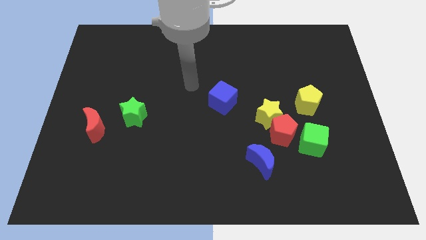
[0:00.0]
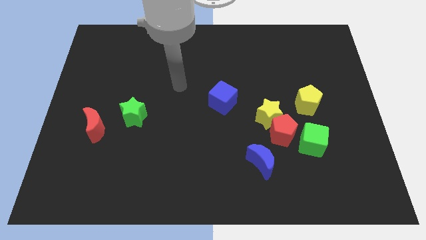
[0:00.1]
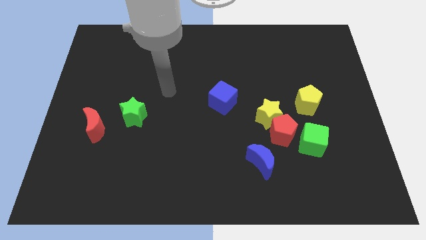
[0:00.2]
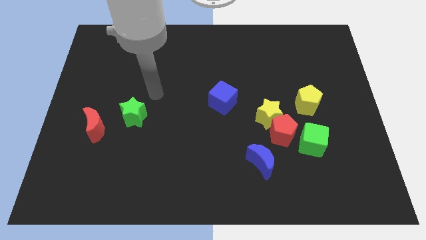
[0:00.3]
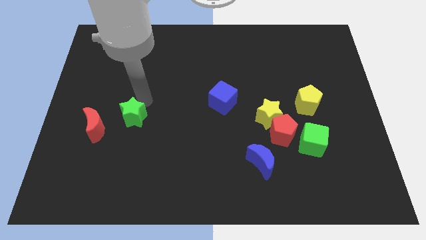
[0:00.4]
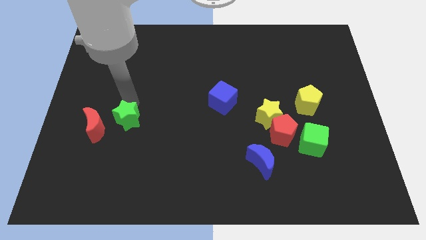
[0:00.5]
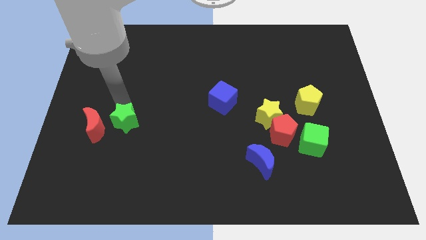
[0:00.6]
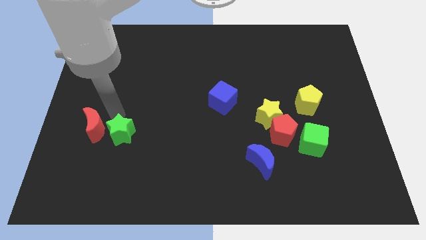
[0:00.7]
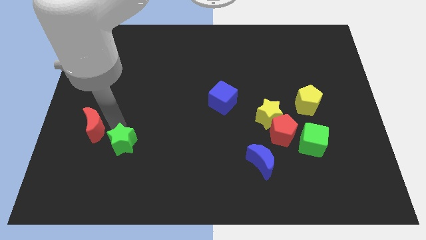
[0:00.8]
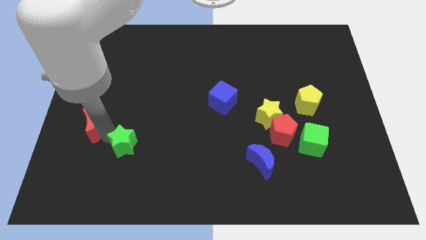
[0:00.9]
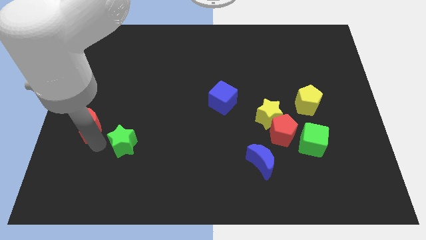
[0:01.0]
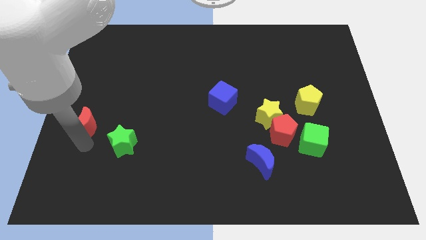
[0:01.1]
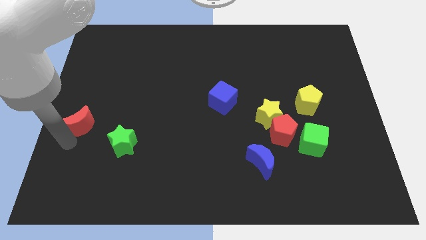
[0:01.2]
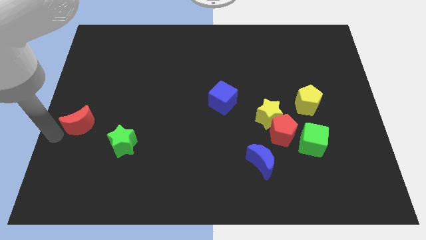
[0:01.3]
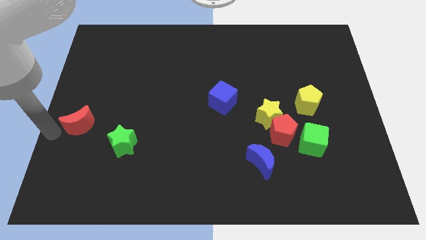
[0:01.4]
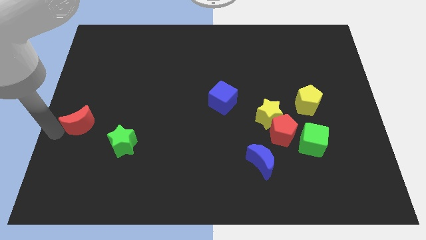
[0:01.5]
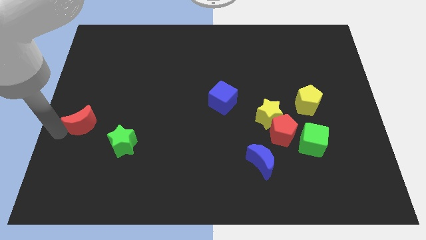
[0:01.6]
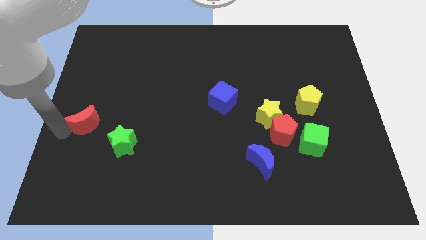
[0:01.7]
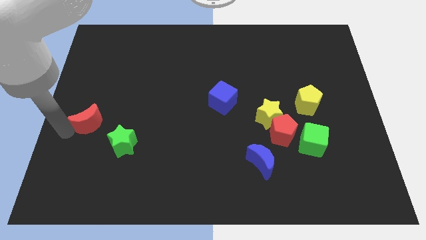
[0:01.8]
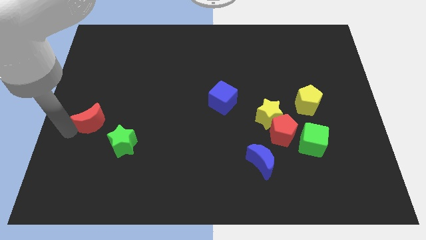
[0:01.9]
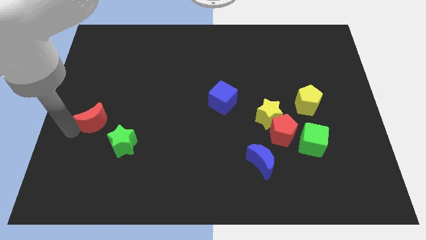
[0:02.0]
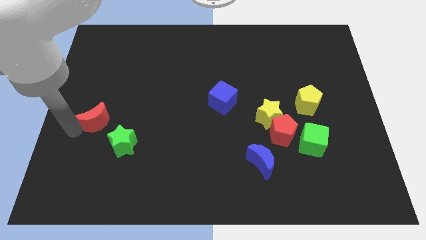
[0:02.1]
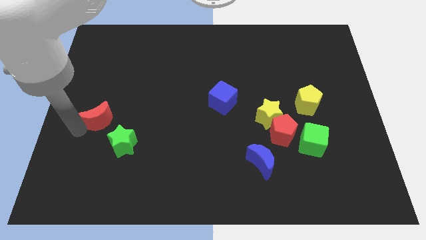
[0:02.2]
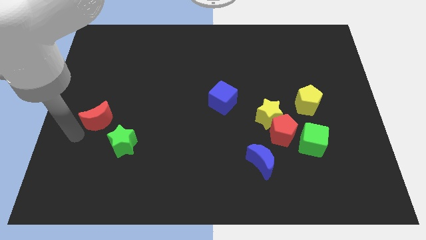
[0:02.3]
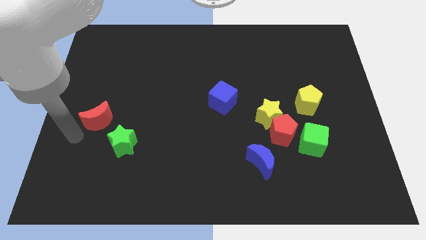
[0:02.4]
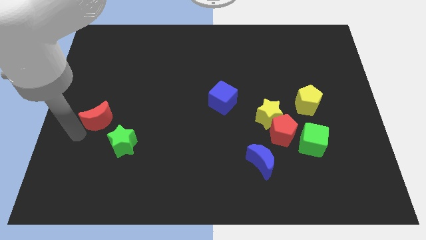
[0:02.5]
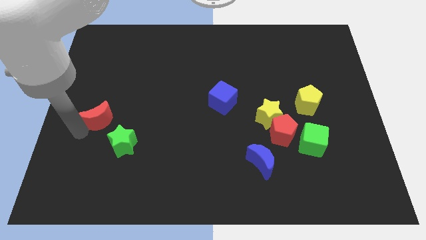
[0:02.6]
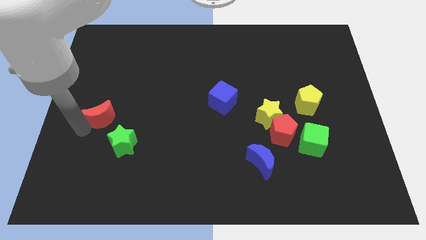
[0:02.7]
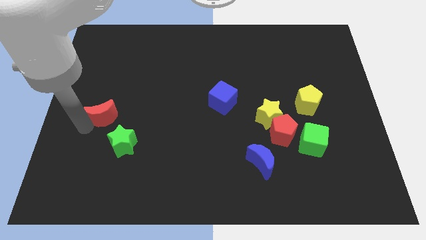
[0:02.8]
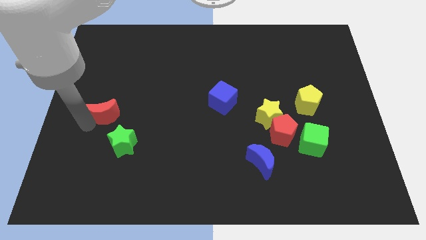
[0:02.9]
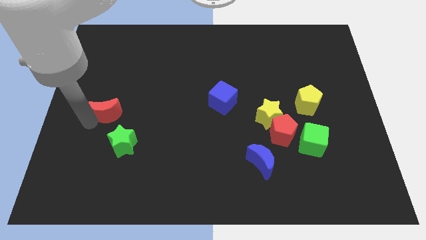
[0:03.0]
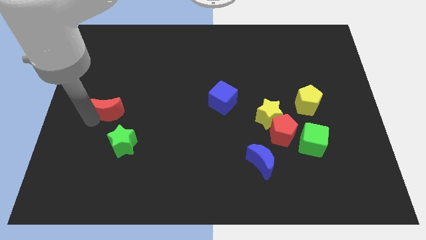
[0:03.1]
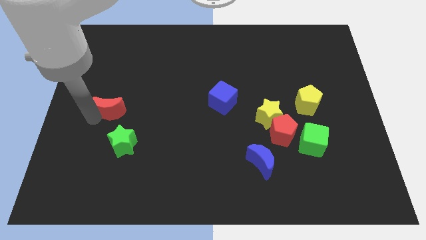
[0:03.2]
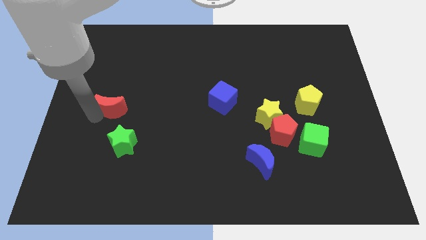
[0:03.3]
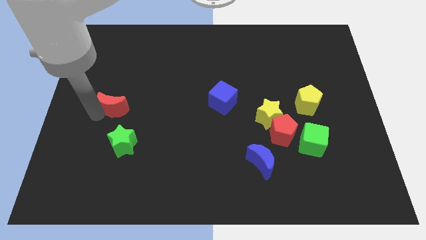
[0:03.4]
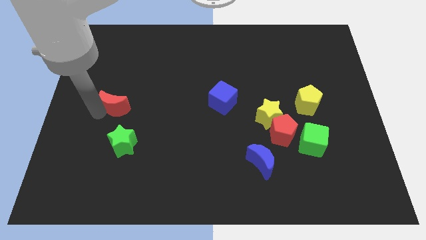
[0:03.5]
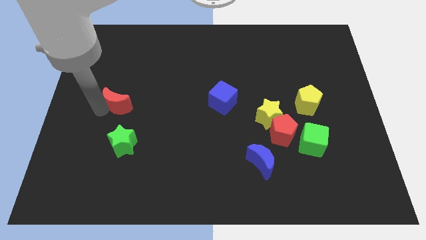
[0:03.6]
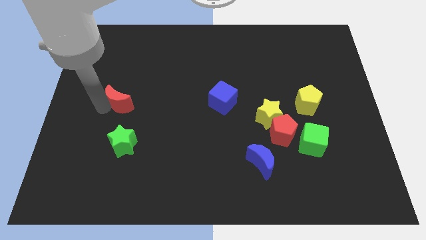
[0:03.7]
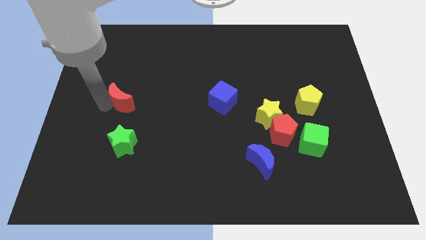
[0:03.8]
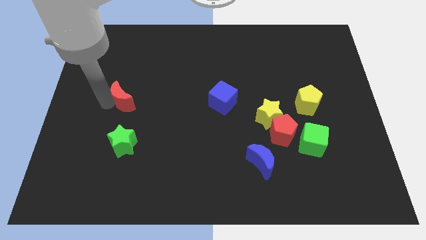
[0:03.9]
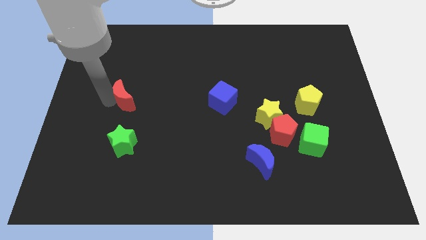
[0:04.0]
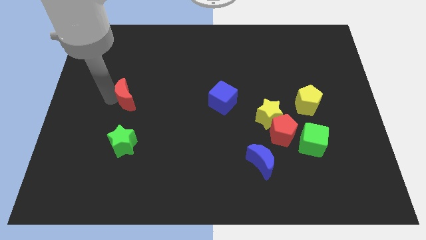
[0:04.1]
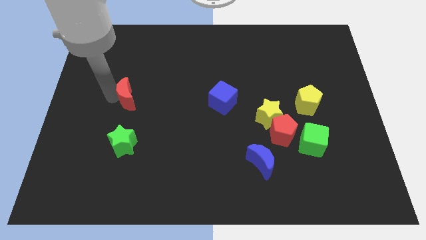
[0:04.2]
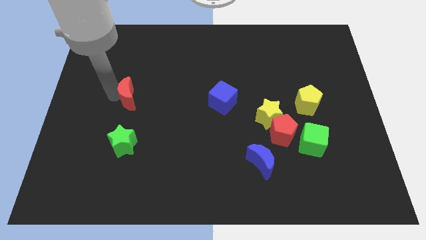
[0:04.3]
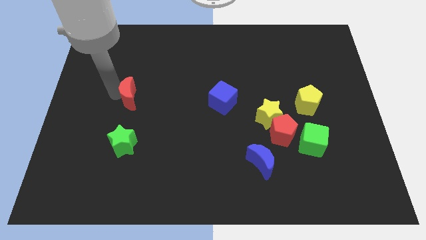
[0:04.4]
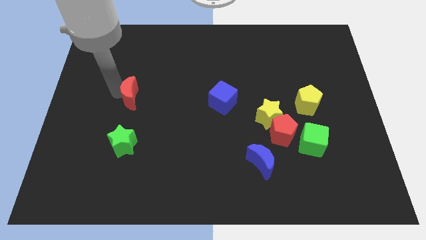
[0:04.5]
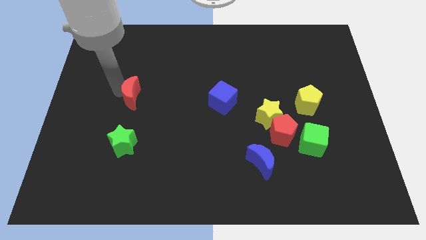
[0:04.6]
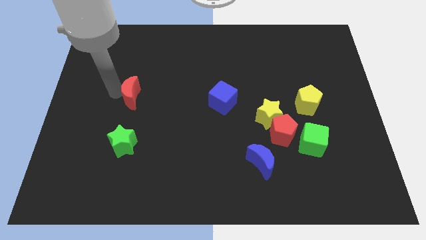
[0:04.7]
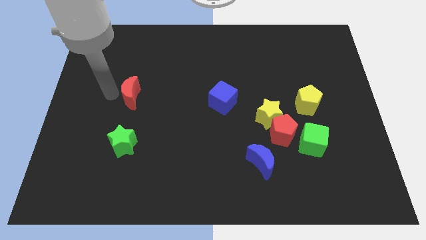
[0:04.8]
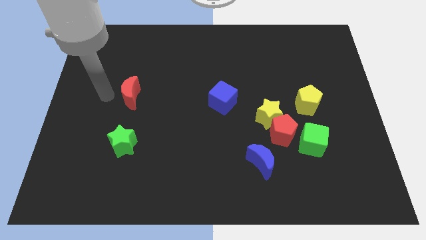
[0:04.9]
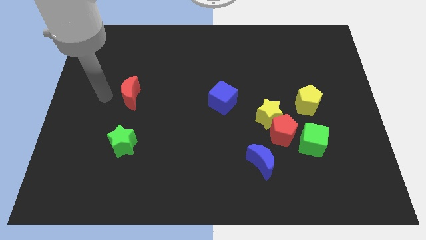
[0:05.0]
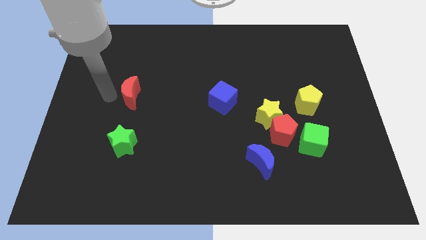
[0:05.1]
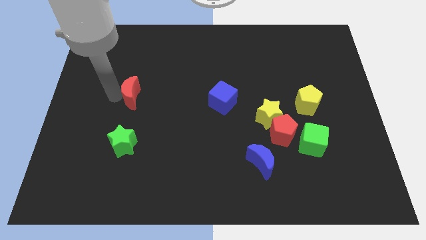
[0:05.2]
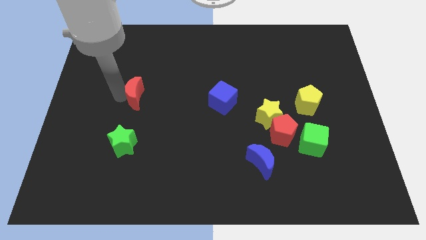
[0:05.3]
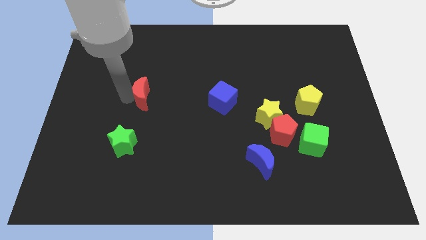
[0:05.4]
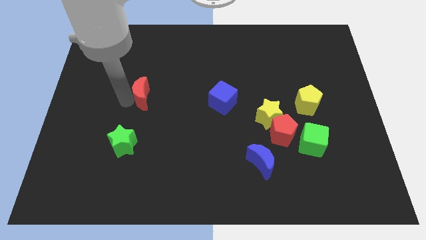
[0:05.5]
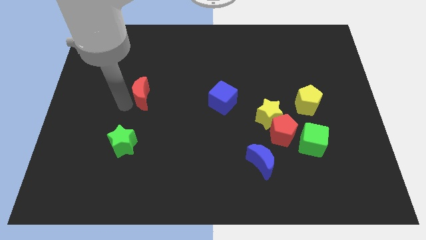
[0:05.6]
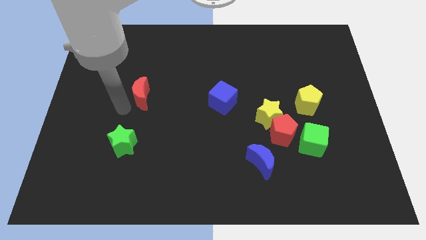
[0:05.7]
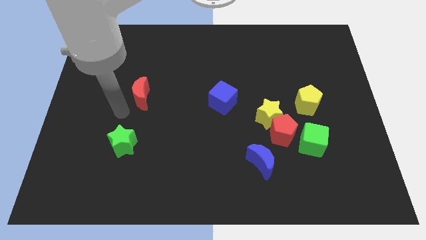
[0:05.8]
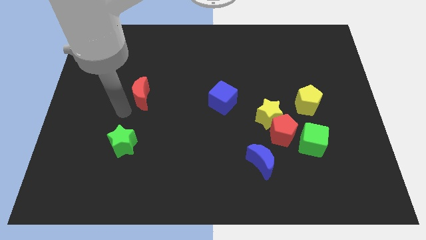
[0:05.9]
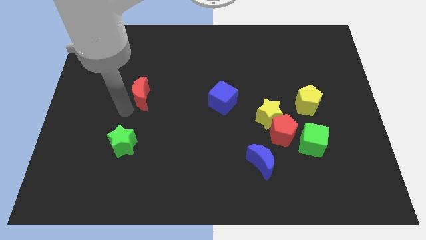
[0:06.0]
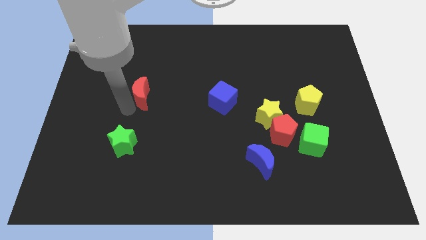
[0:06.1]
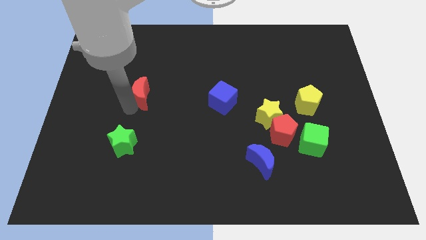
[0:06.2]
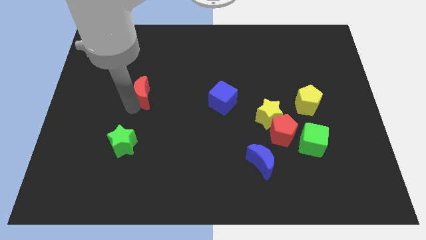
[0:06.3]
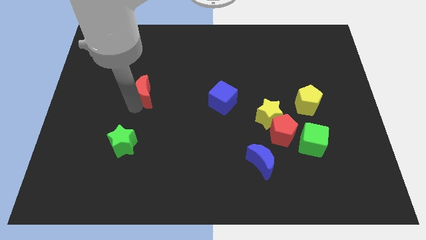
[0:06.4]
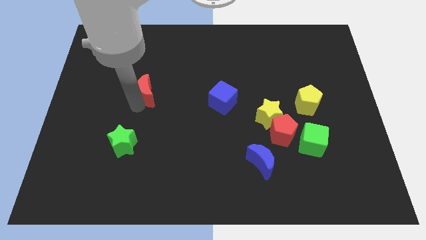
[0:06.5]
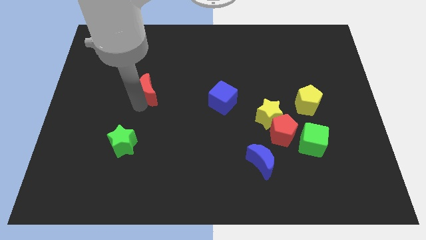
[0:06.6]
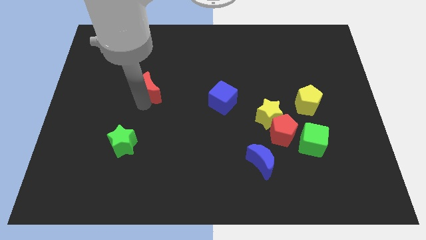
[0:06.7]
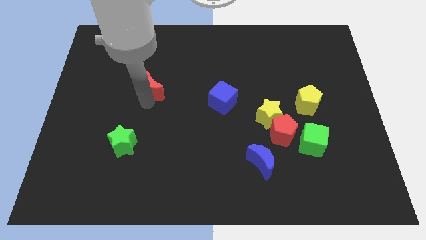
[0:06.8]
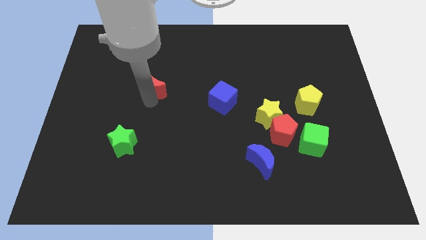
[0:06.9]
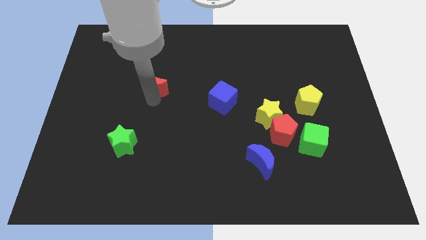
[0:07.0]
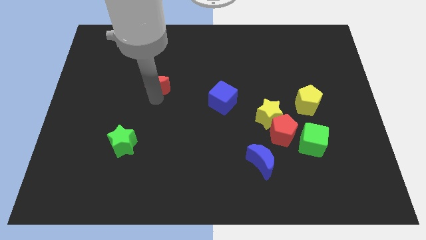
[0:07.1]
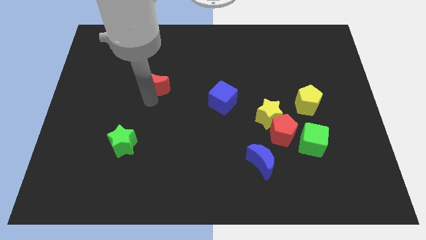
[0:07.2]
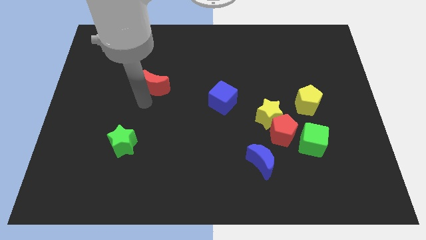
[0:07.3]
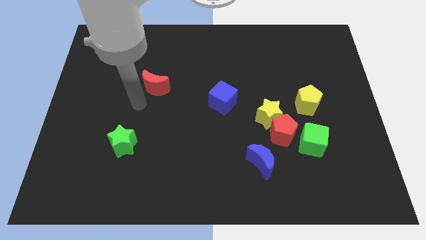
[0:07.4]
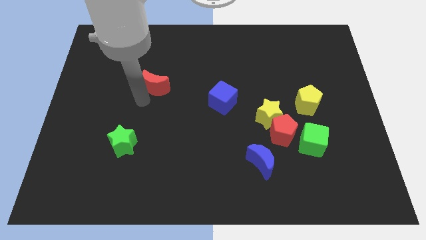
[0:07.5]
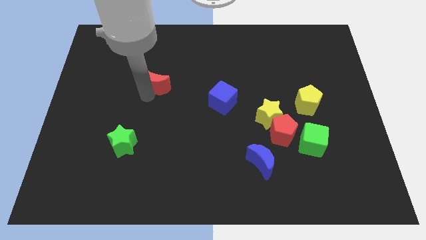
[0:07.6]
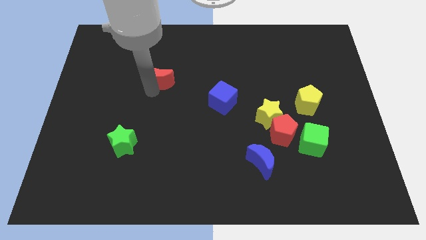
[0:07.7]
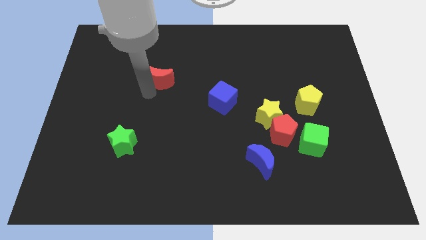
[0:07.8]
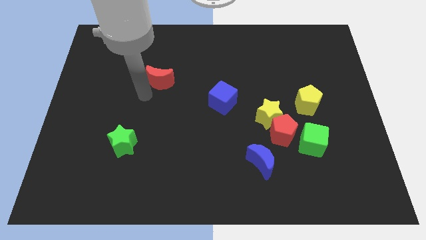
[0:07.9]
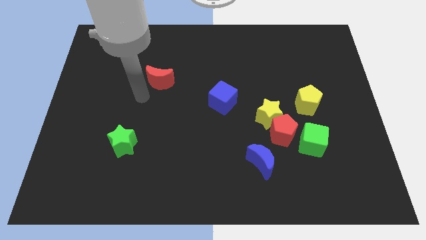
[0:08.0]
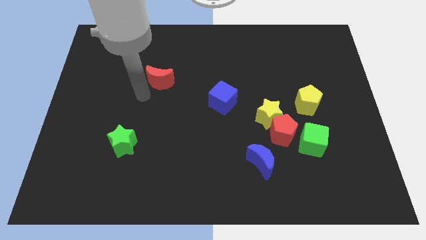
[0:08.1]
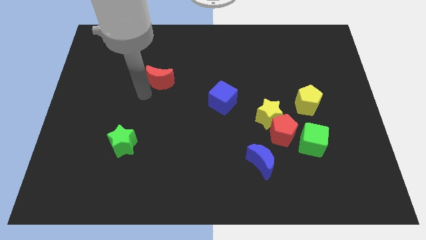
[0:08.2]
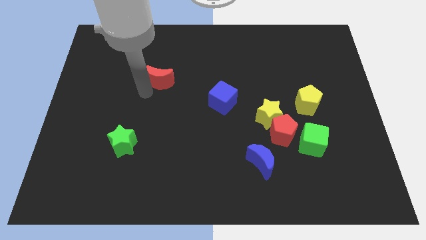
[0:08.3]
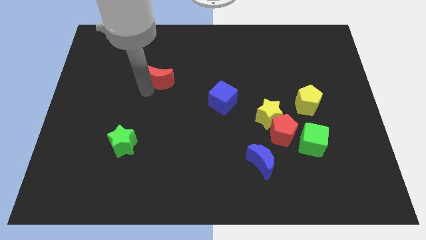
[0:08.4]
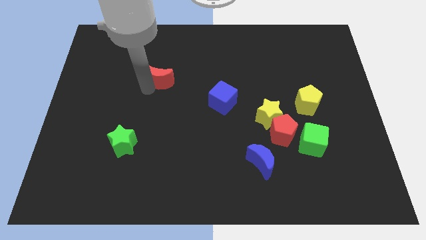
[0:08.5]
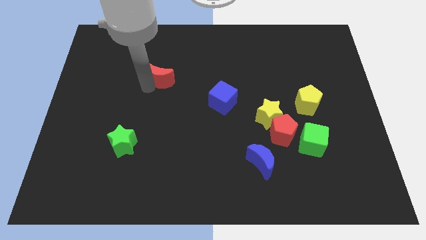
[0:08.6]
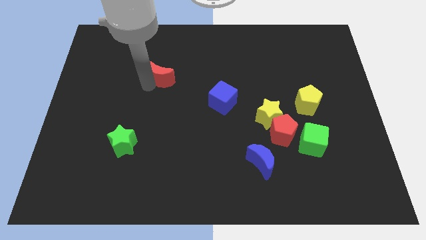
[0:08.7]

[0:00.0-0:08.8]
slide the red moon upwards and to the right
